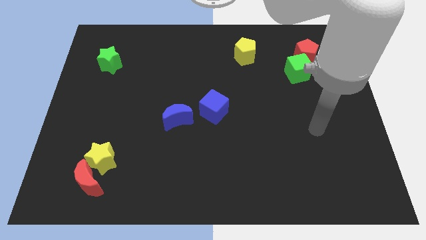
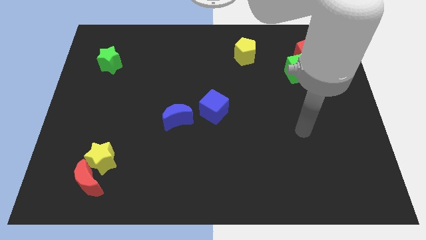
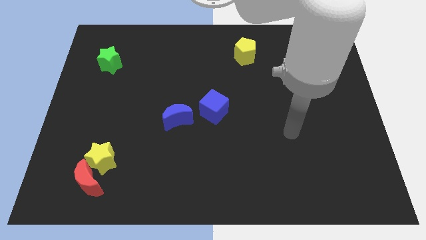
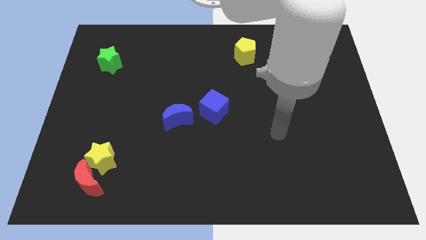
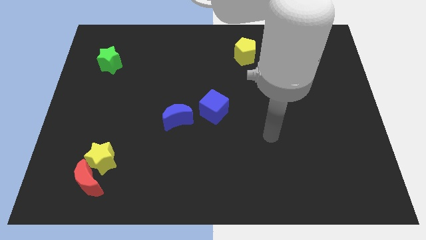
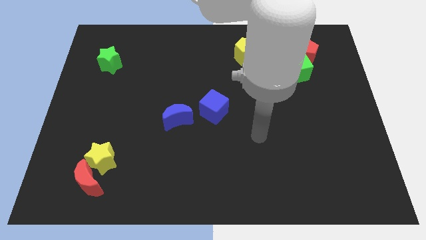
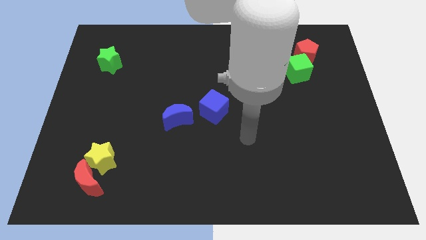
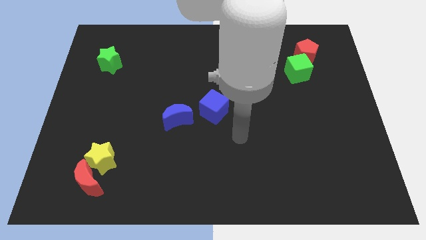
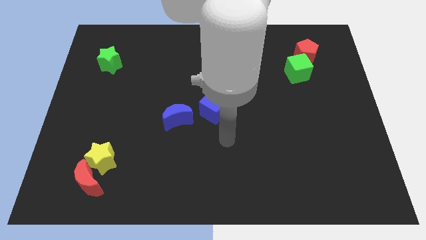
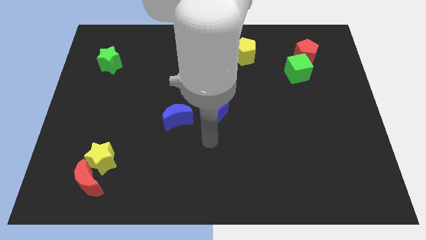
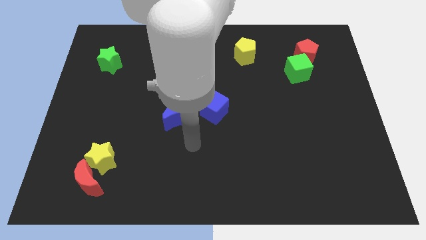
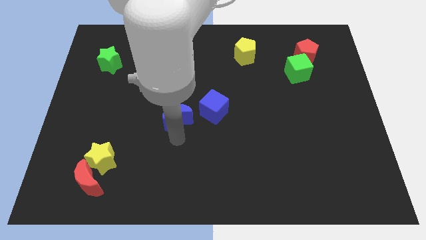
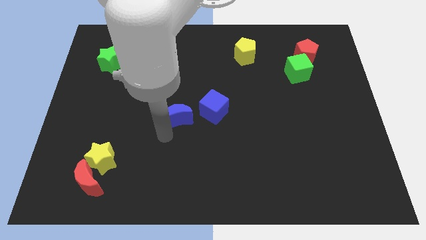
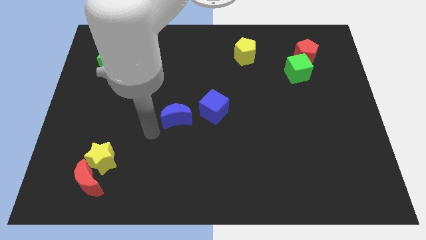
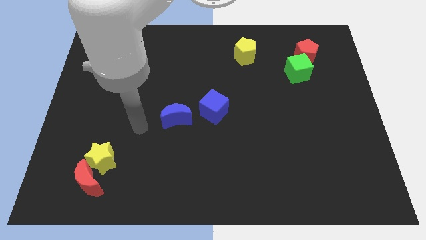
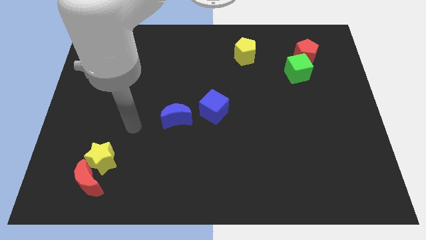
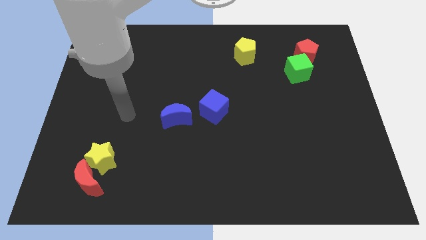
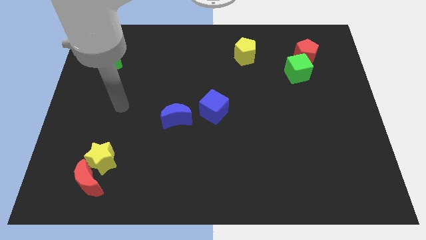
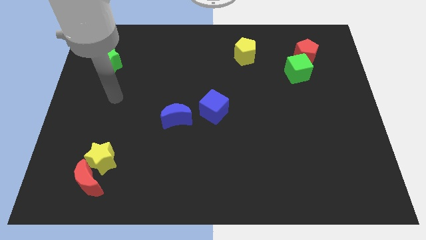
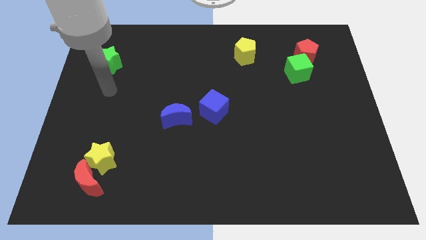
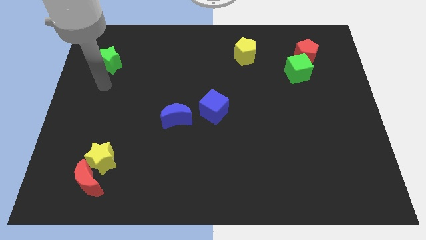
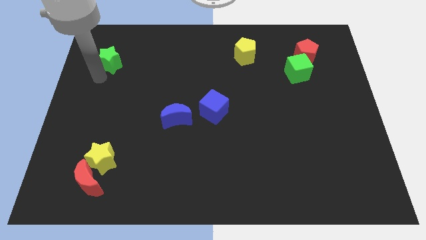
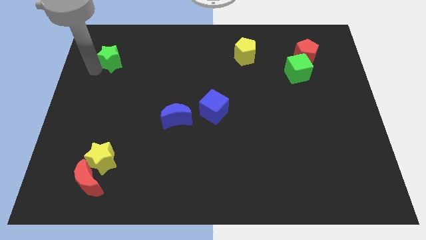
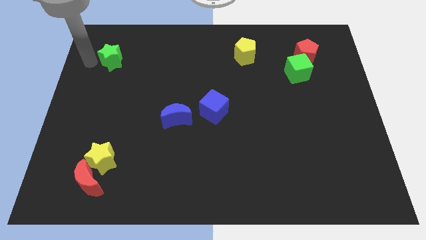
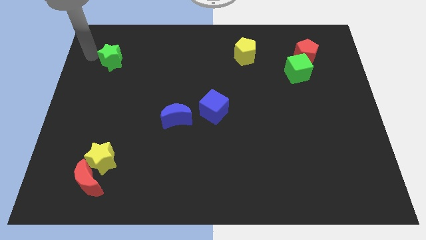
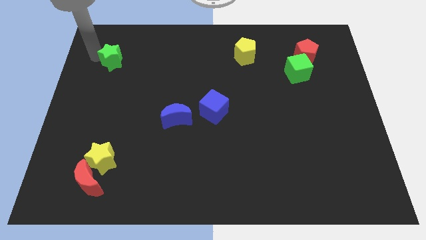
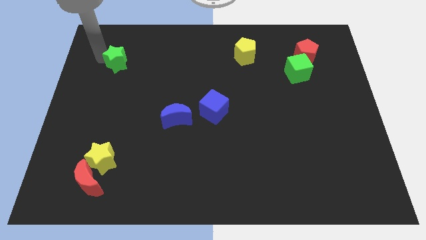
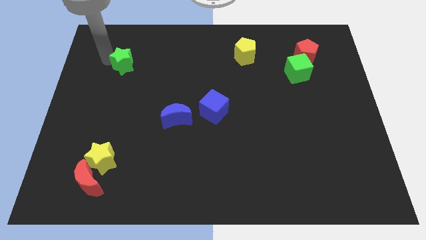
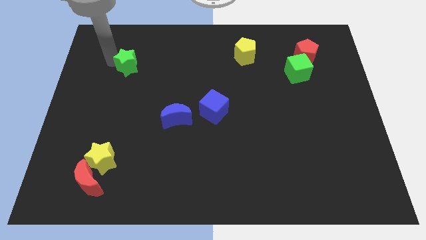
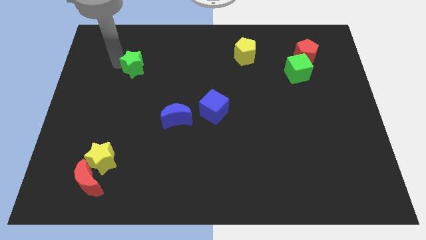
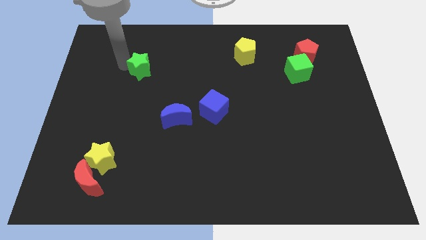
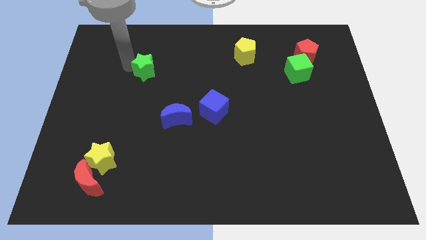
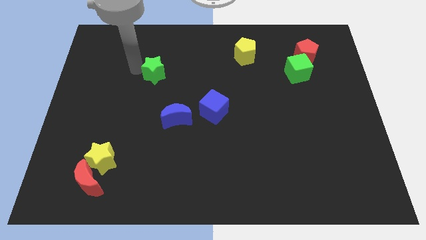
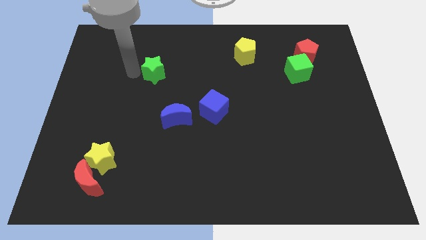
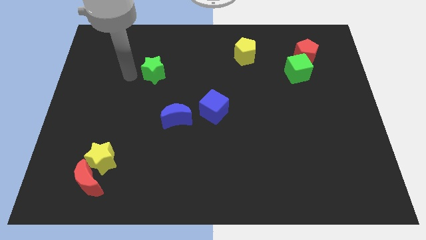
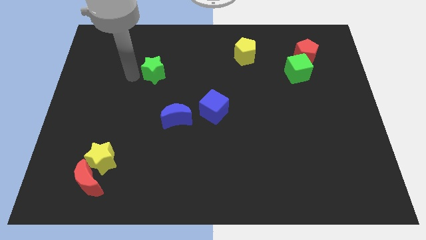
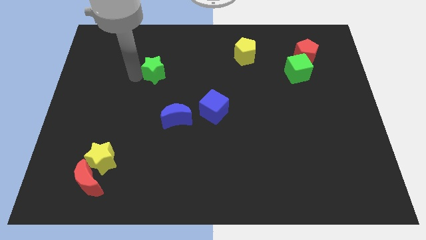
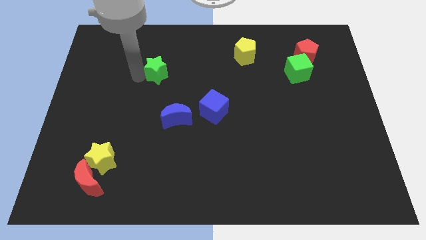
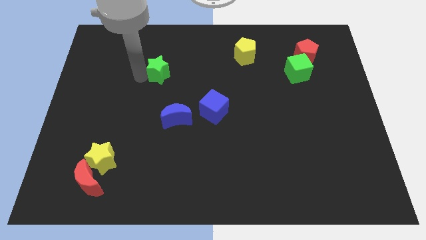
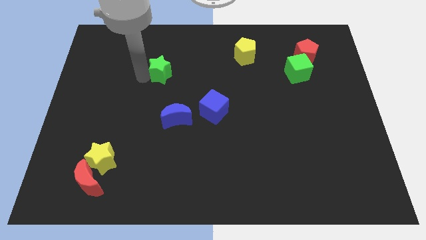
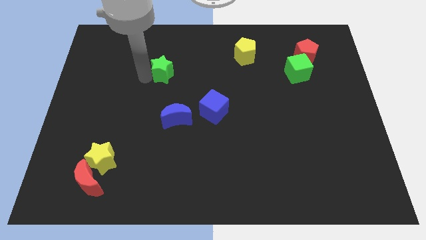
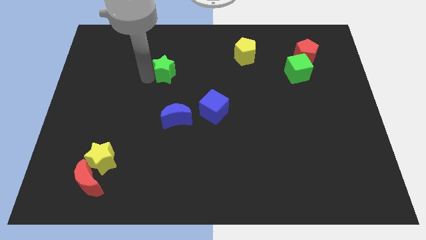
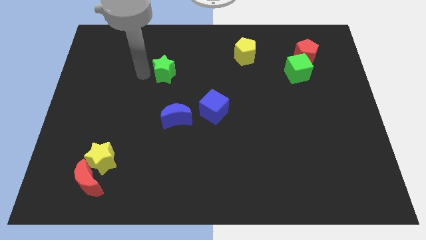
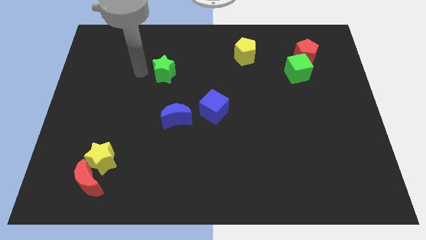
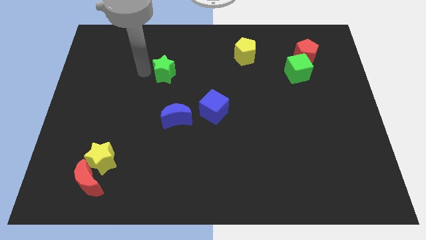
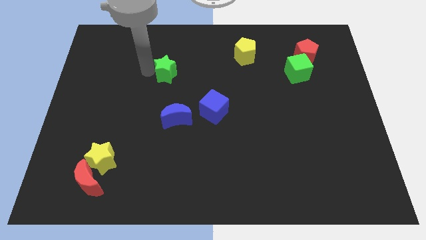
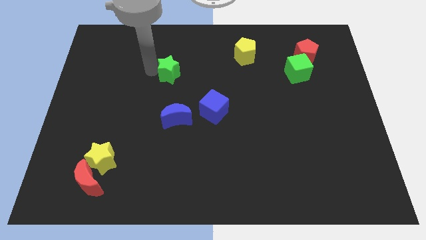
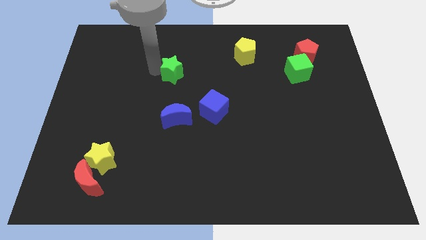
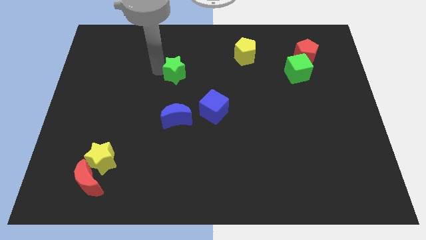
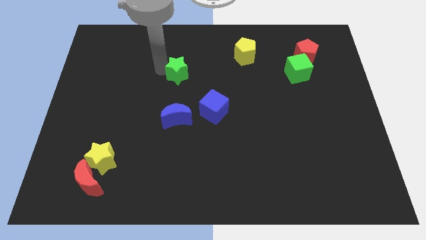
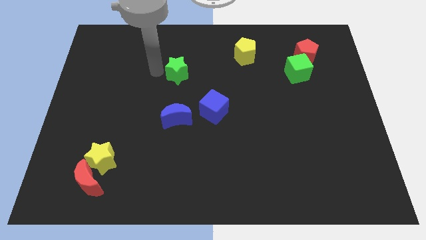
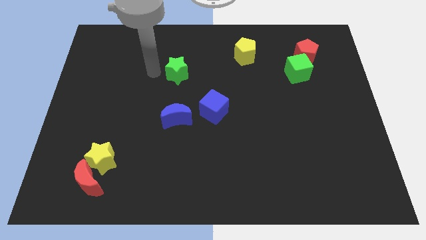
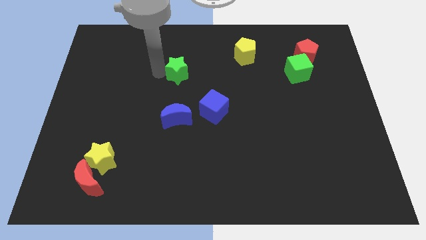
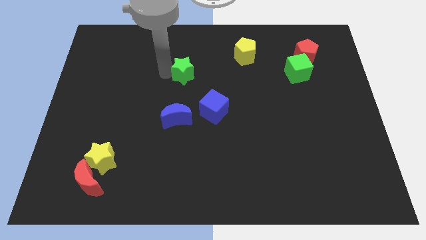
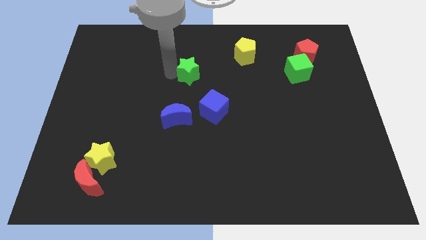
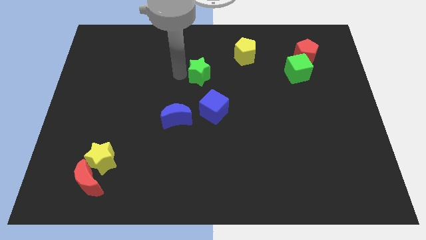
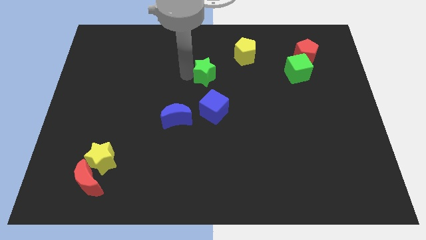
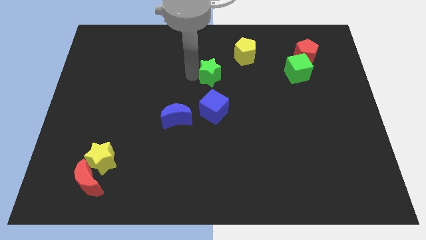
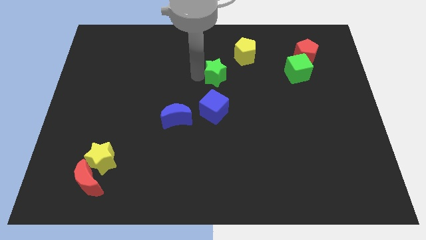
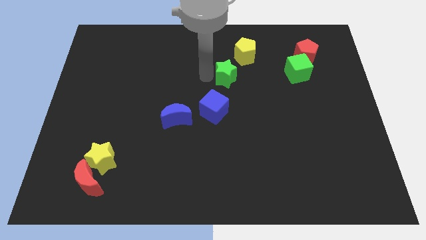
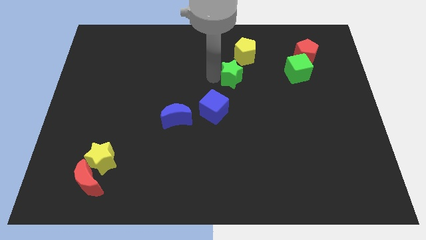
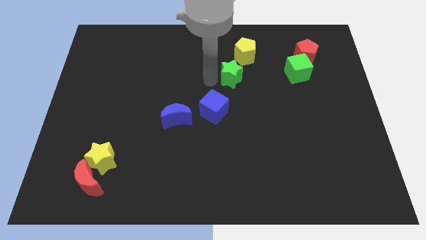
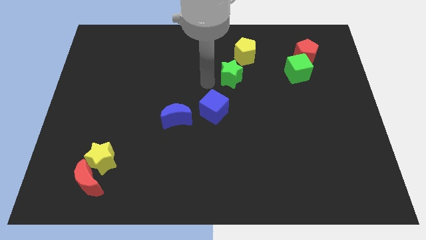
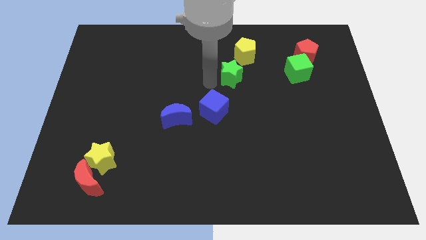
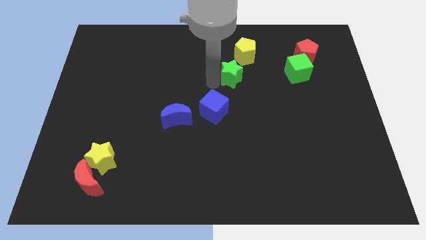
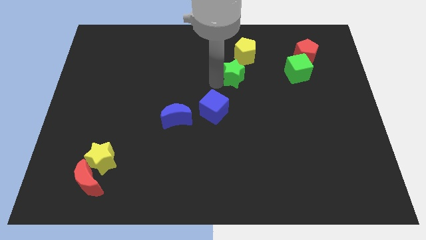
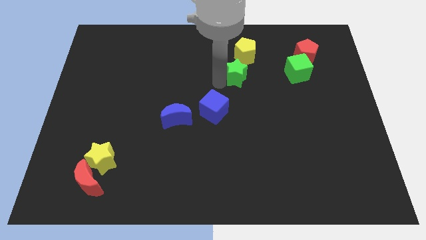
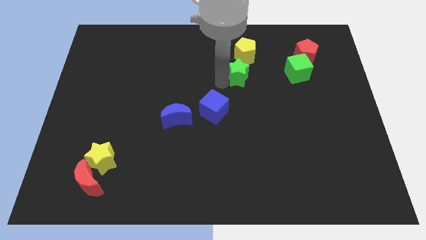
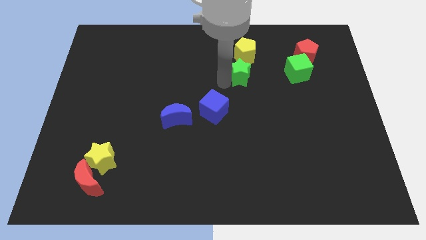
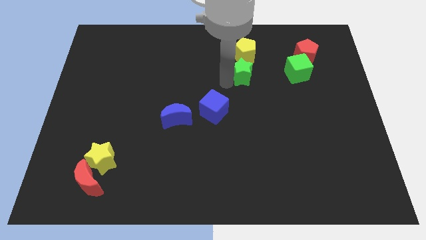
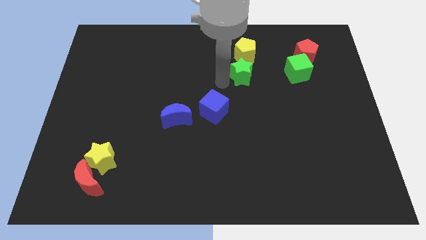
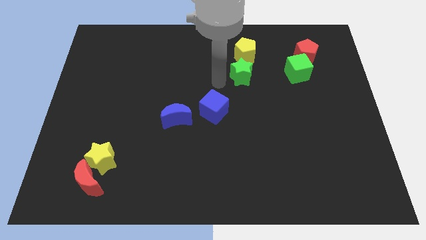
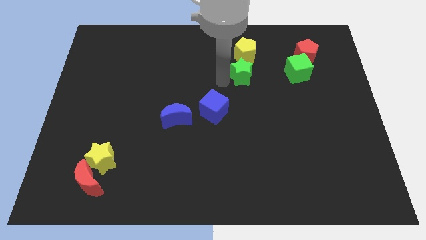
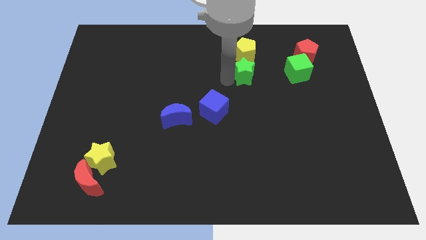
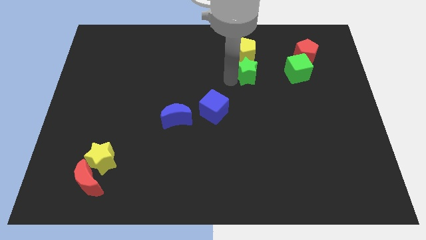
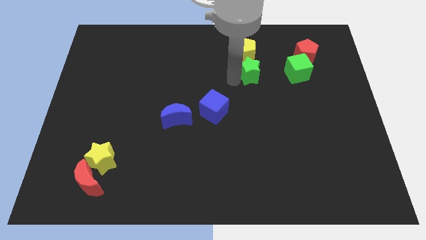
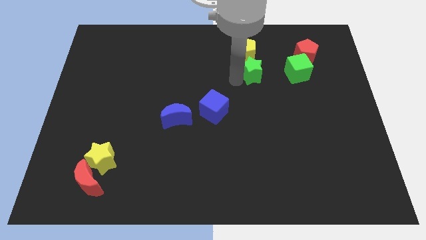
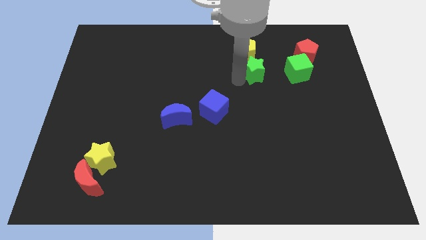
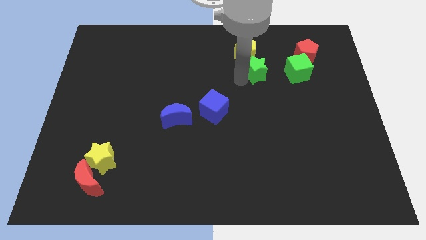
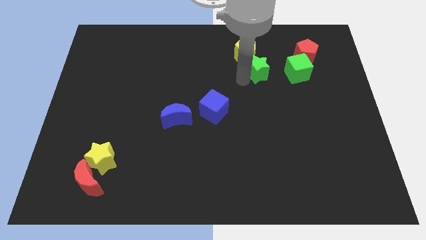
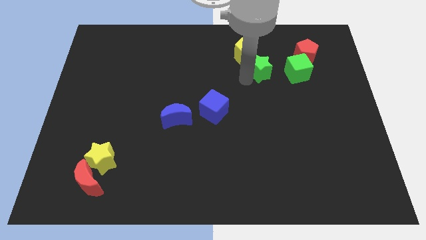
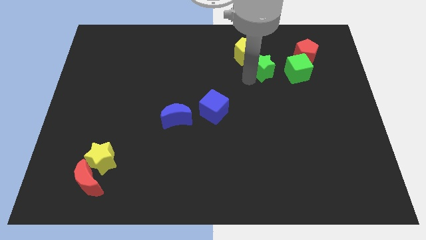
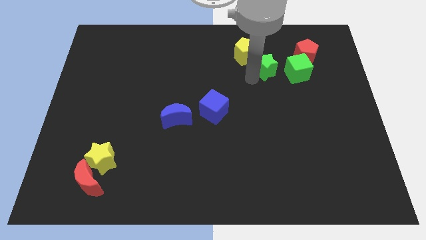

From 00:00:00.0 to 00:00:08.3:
push the green star left of the red pentagon
